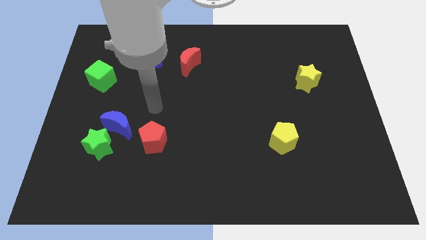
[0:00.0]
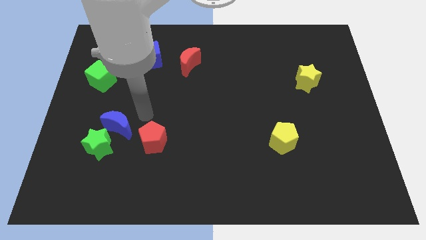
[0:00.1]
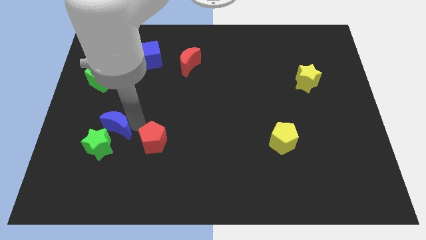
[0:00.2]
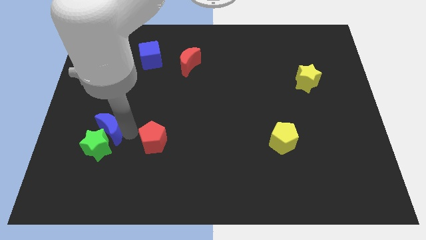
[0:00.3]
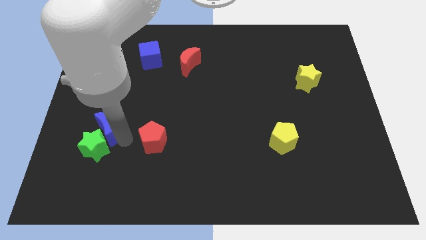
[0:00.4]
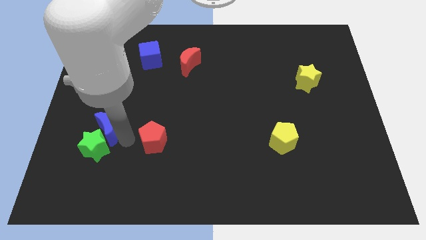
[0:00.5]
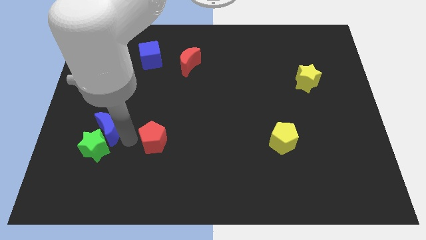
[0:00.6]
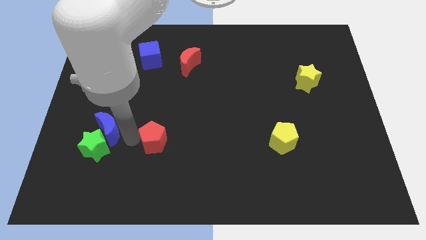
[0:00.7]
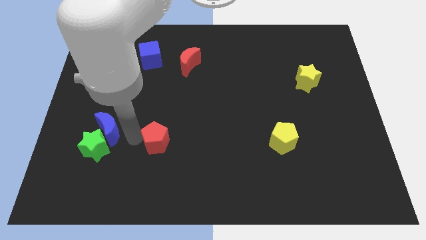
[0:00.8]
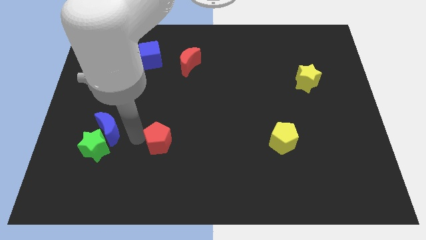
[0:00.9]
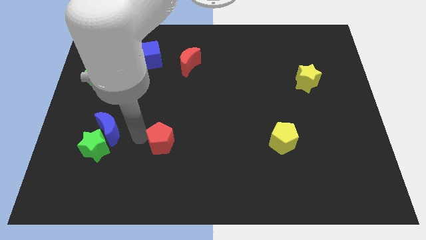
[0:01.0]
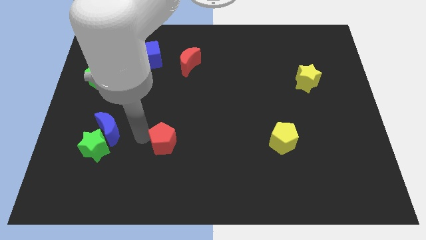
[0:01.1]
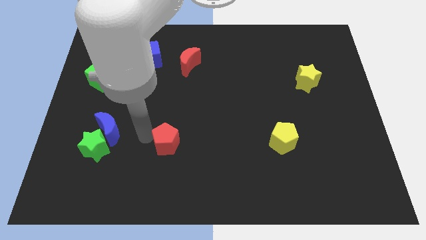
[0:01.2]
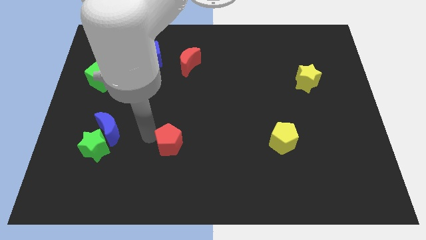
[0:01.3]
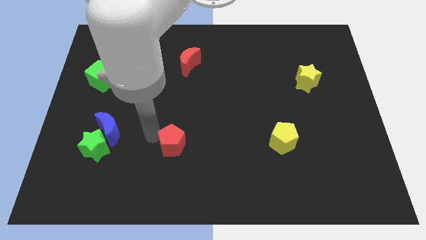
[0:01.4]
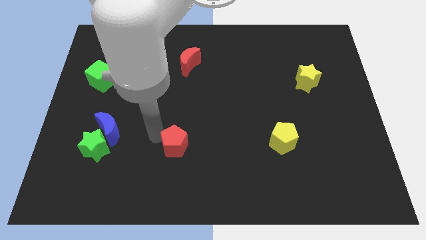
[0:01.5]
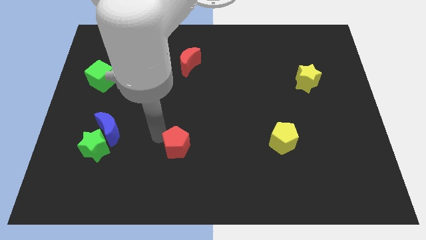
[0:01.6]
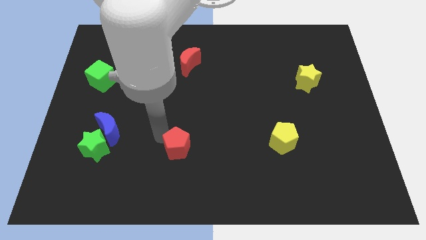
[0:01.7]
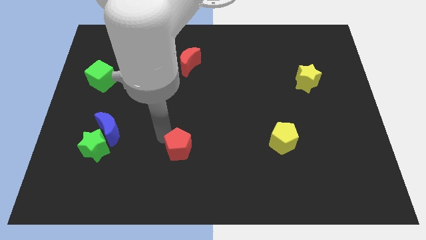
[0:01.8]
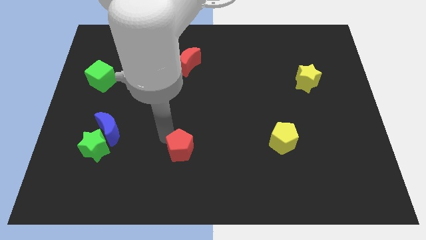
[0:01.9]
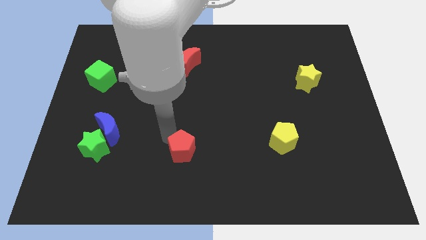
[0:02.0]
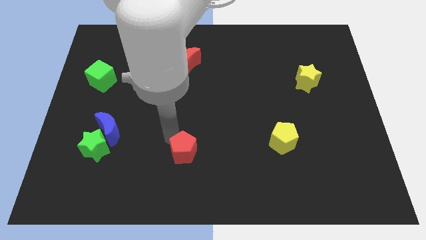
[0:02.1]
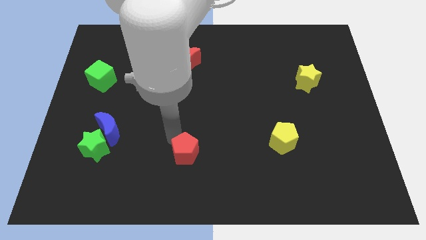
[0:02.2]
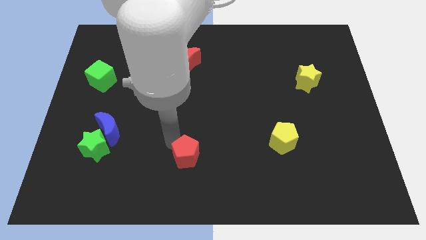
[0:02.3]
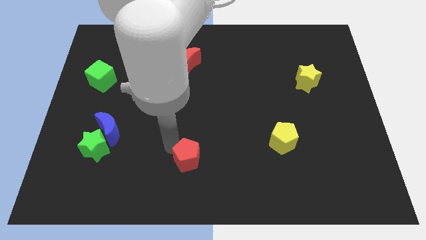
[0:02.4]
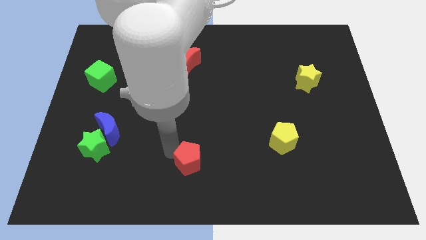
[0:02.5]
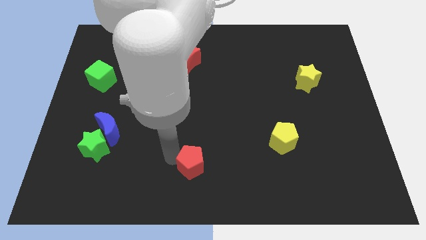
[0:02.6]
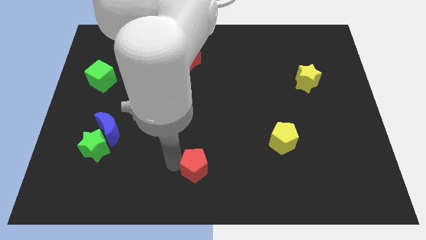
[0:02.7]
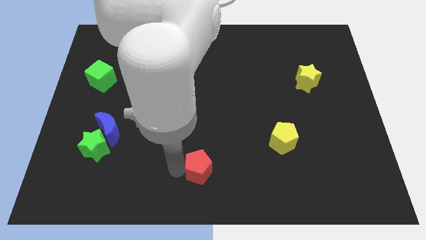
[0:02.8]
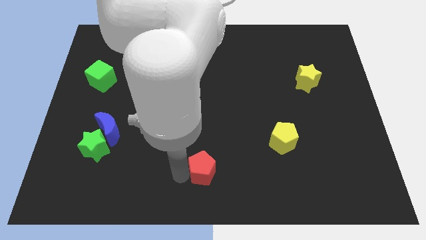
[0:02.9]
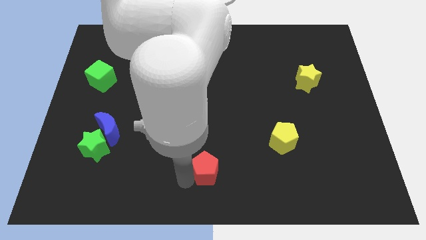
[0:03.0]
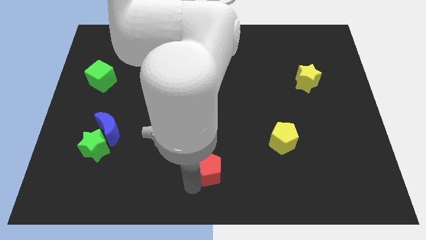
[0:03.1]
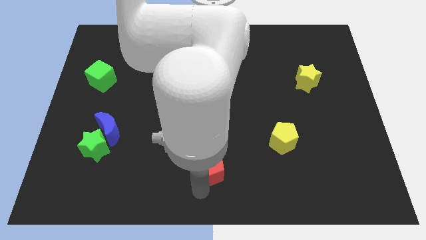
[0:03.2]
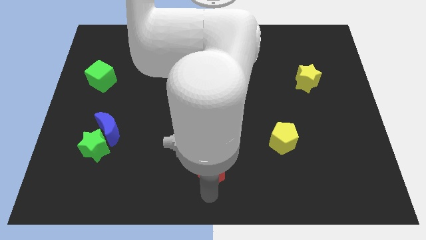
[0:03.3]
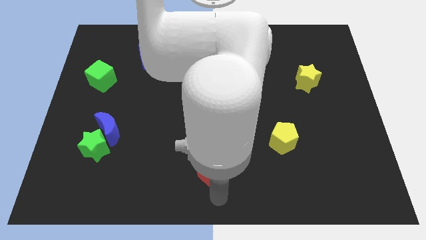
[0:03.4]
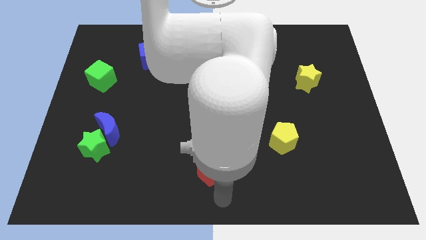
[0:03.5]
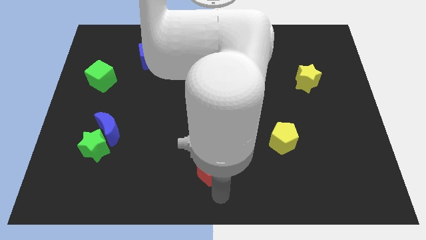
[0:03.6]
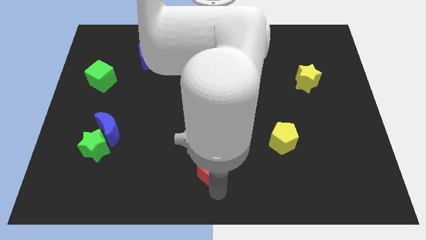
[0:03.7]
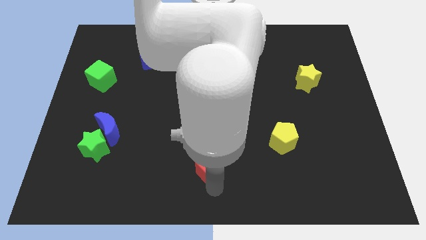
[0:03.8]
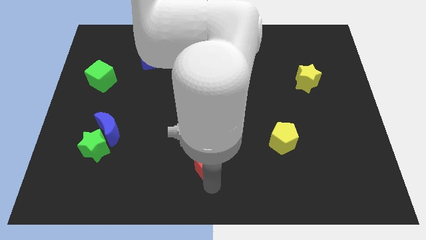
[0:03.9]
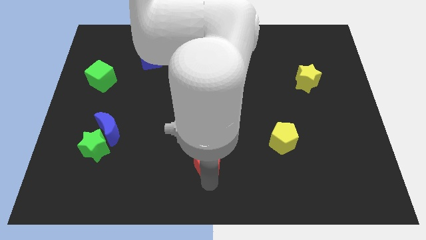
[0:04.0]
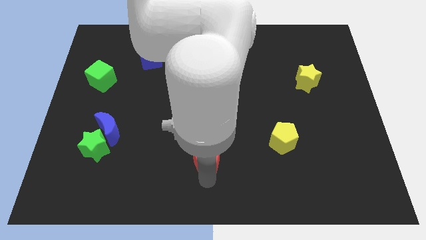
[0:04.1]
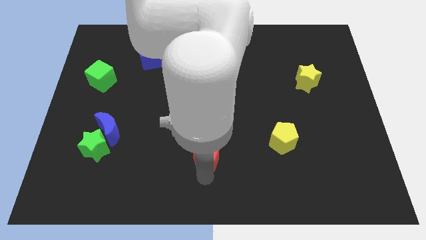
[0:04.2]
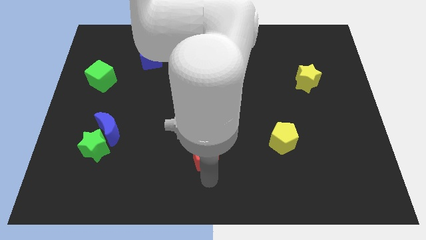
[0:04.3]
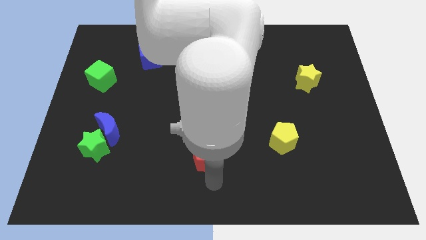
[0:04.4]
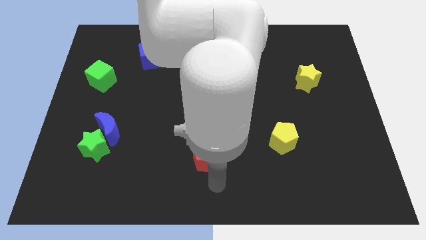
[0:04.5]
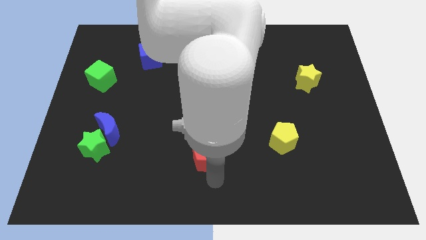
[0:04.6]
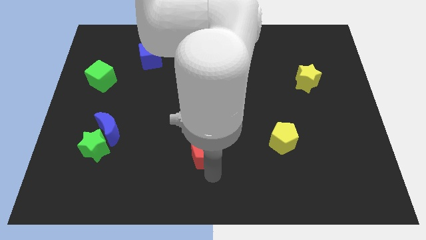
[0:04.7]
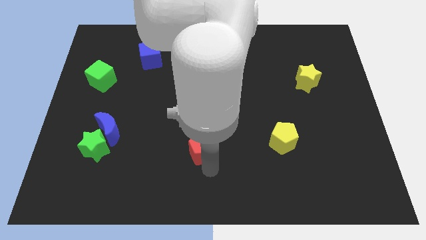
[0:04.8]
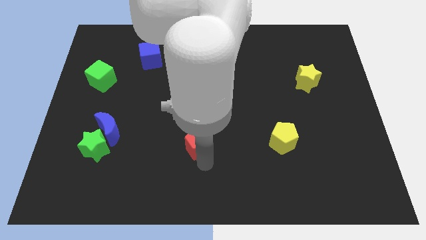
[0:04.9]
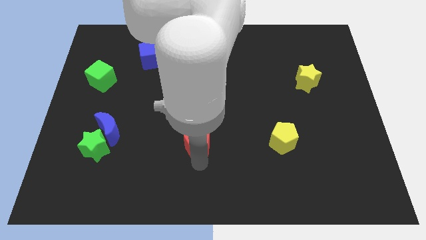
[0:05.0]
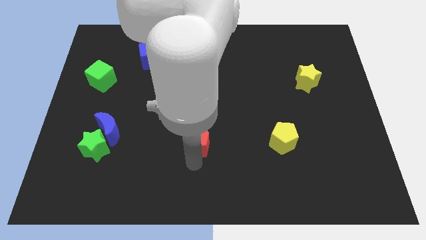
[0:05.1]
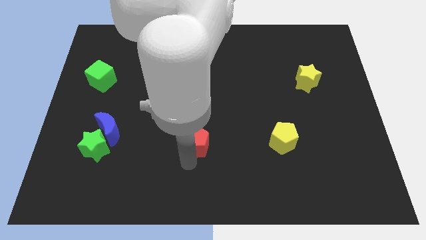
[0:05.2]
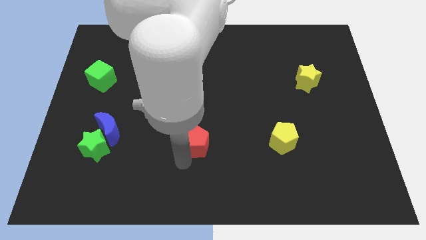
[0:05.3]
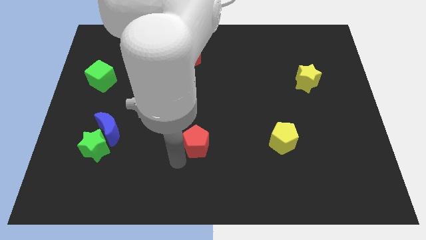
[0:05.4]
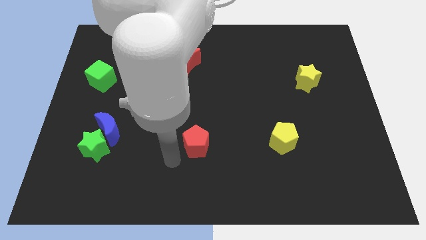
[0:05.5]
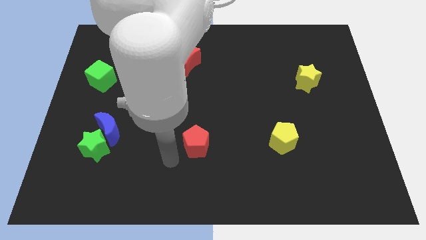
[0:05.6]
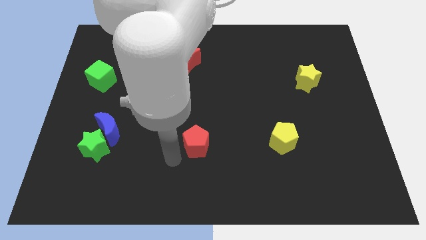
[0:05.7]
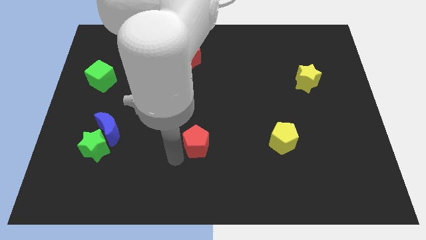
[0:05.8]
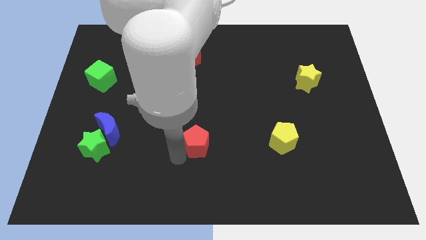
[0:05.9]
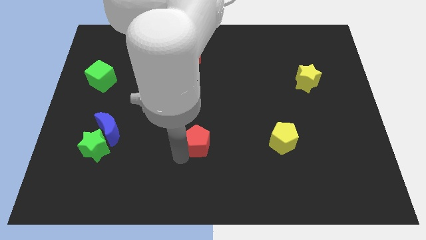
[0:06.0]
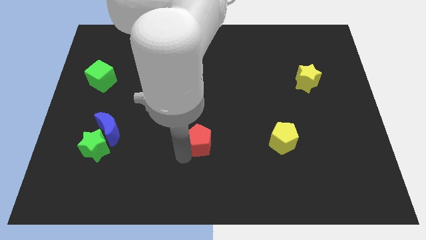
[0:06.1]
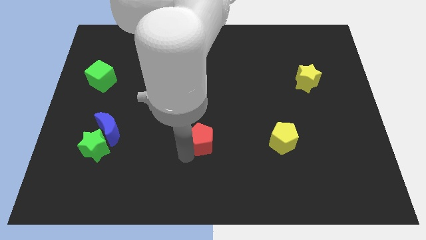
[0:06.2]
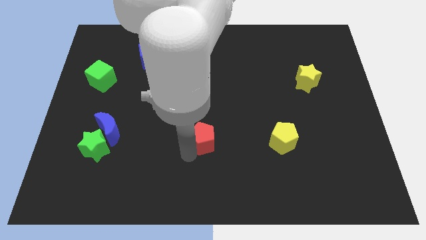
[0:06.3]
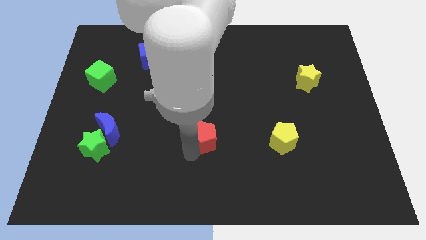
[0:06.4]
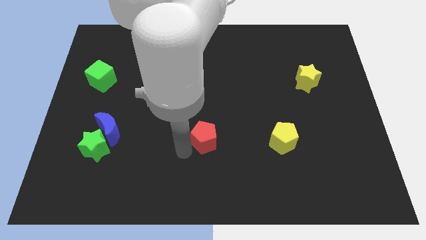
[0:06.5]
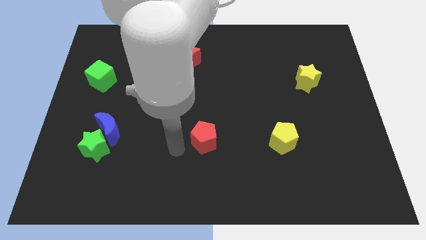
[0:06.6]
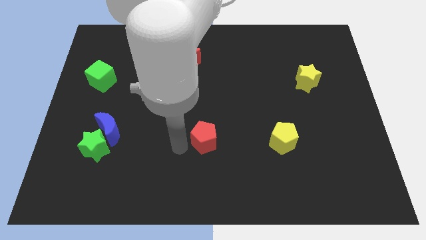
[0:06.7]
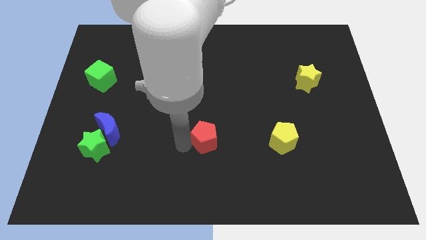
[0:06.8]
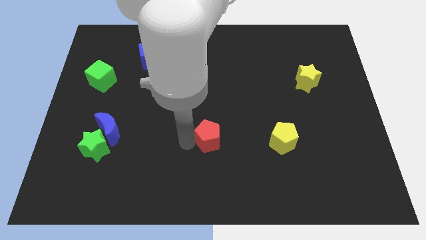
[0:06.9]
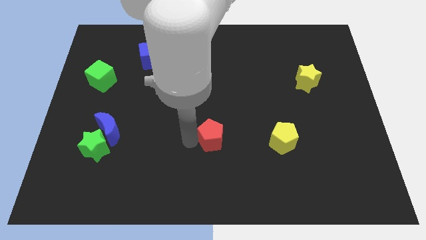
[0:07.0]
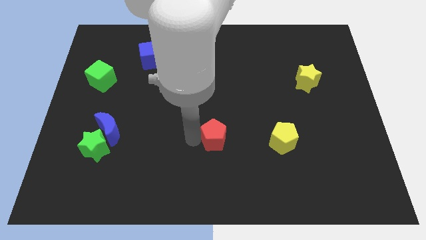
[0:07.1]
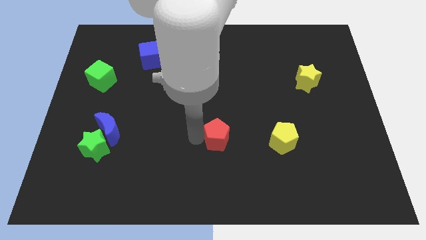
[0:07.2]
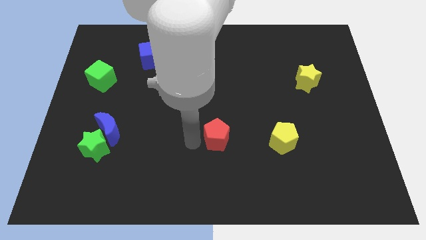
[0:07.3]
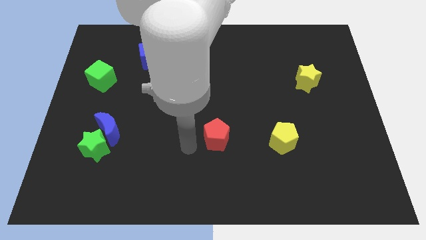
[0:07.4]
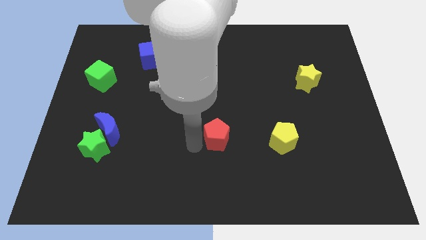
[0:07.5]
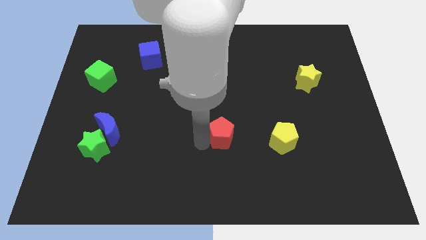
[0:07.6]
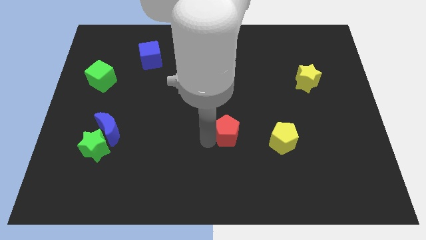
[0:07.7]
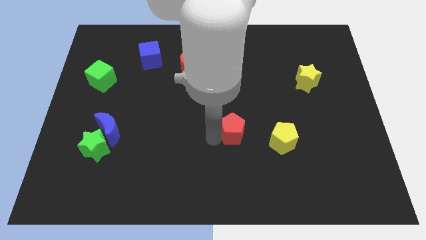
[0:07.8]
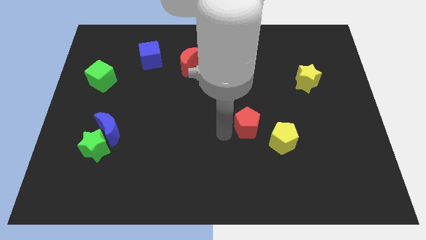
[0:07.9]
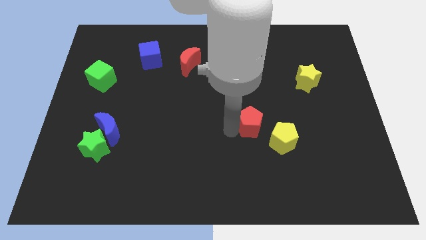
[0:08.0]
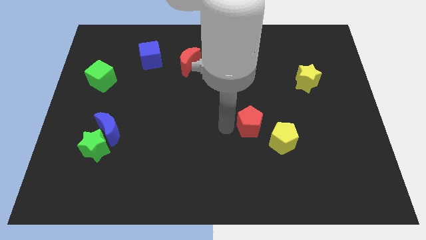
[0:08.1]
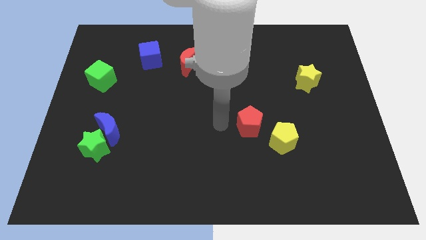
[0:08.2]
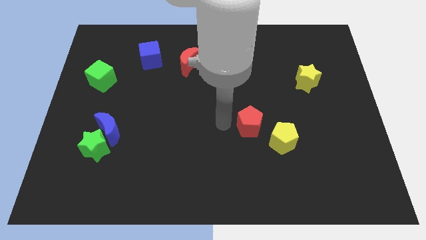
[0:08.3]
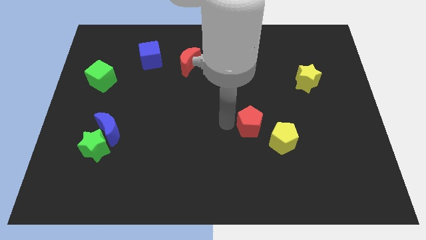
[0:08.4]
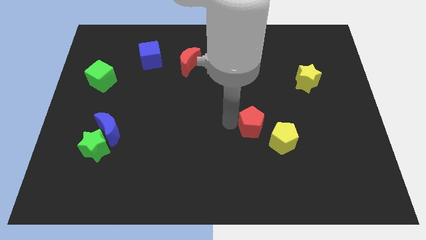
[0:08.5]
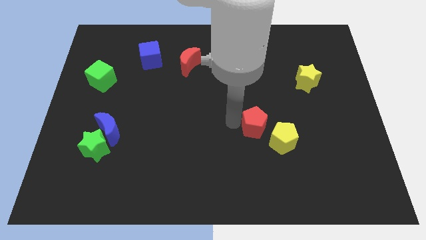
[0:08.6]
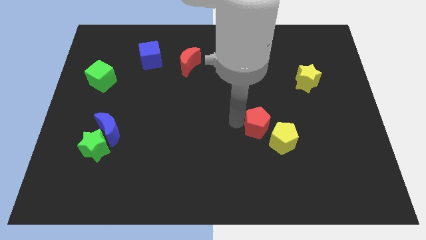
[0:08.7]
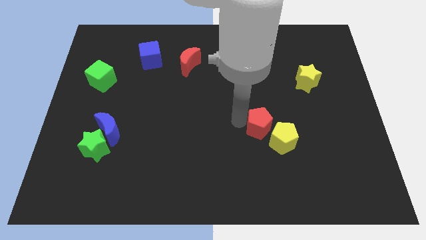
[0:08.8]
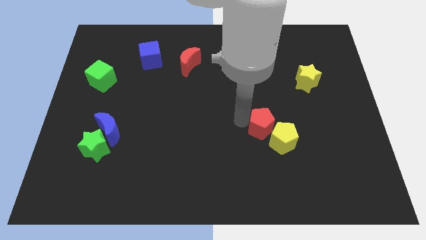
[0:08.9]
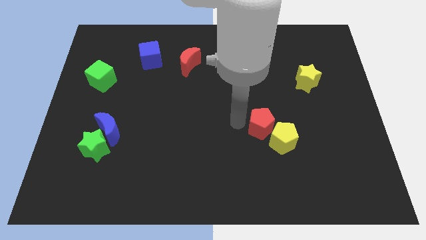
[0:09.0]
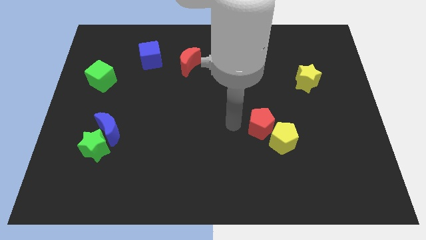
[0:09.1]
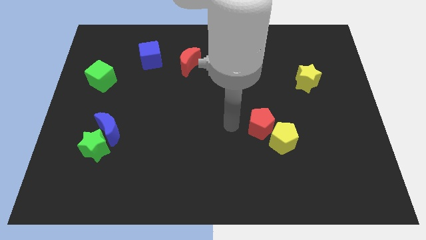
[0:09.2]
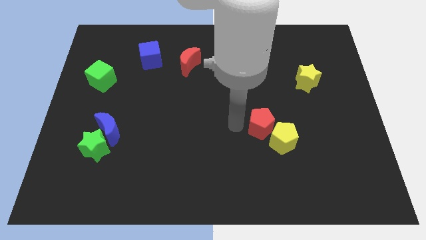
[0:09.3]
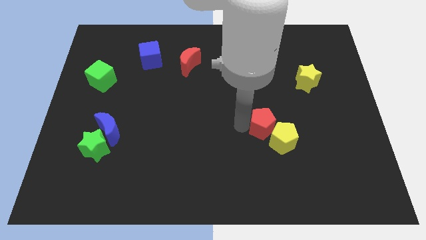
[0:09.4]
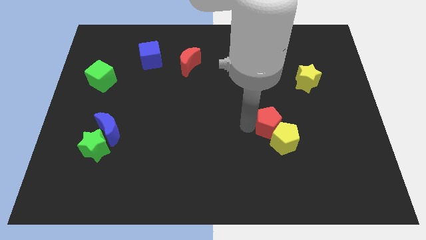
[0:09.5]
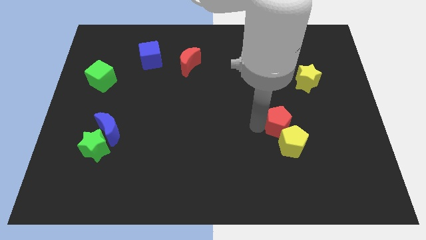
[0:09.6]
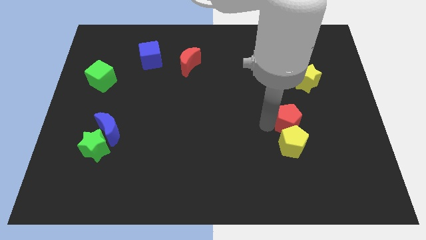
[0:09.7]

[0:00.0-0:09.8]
push the red pentagon to the top right side of the yellow pentagon
